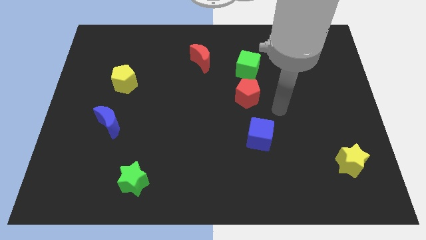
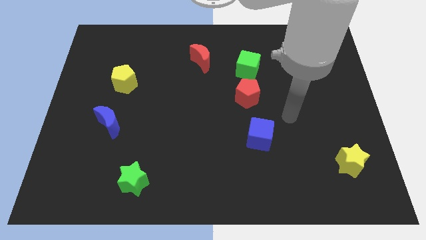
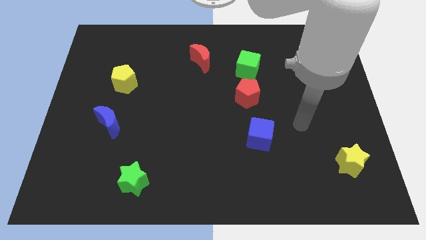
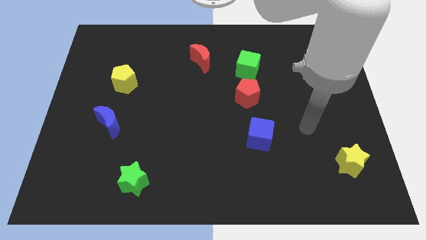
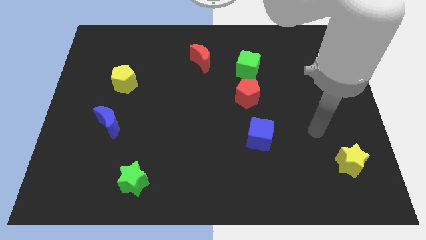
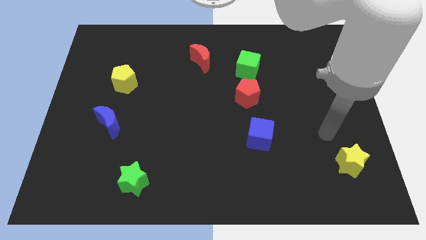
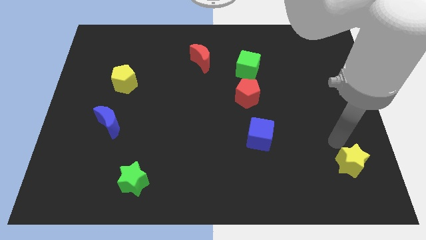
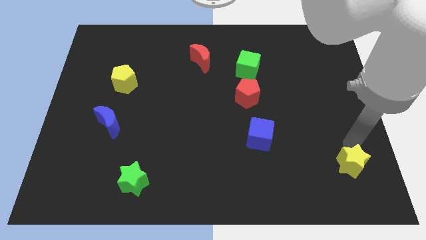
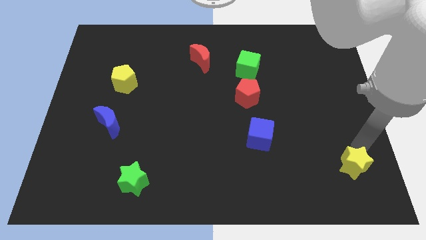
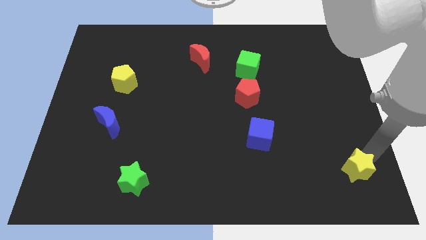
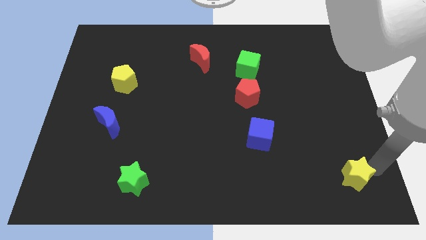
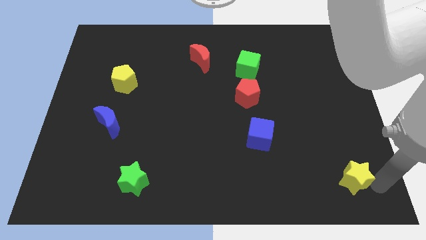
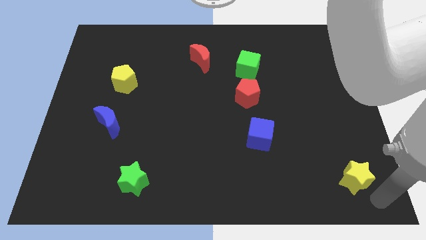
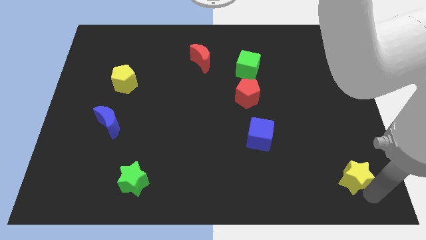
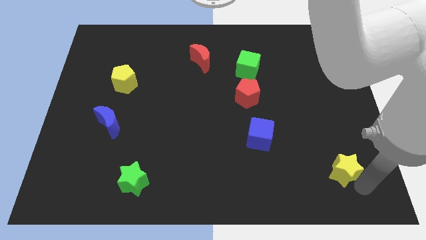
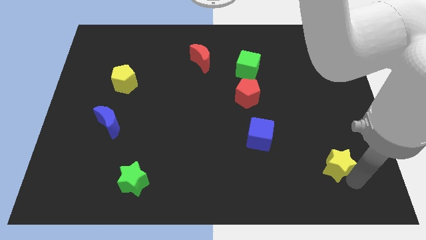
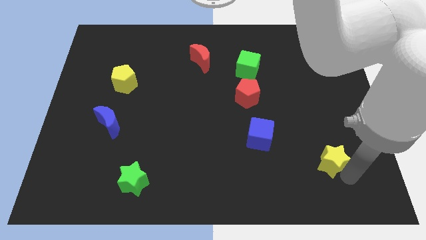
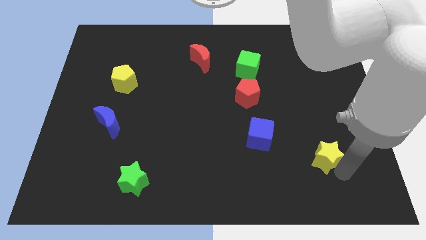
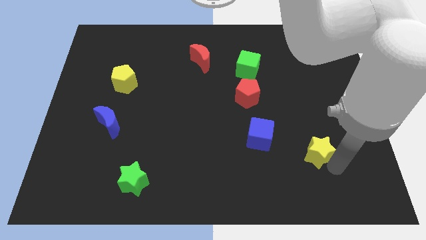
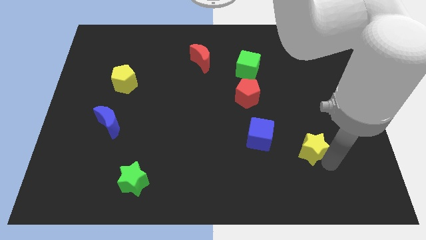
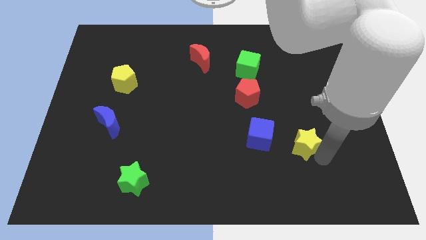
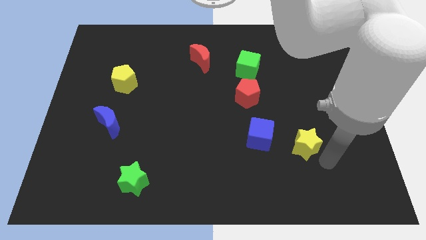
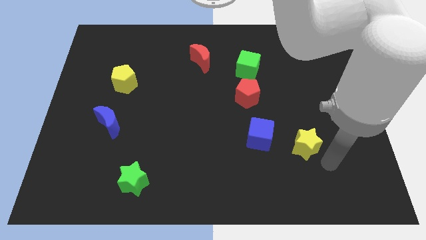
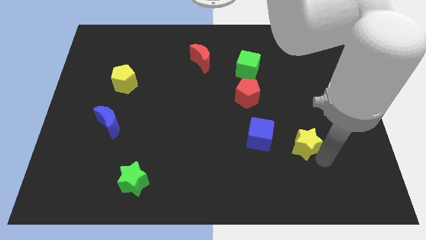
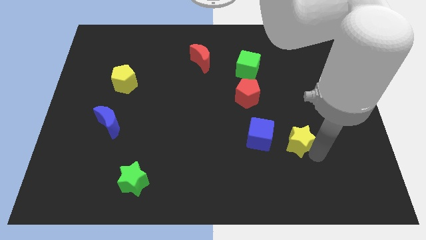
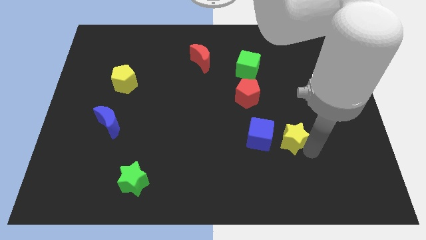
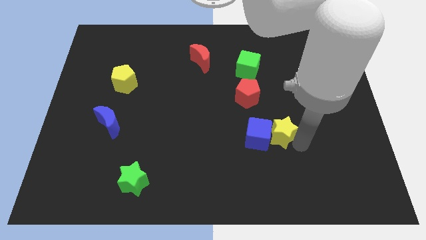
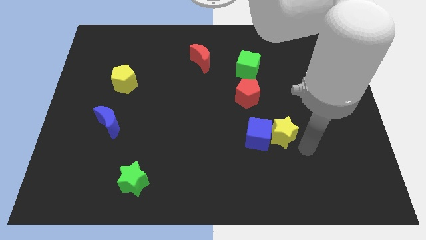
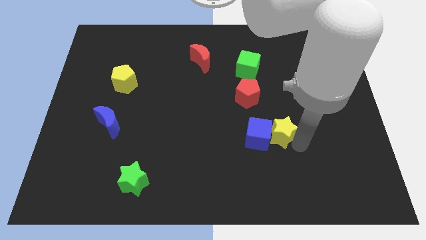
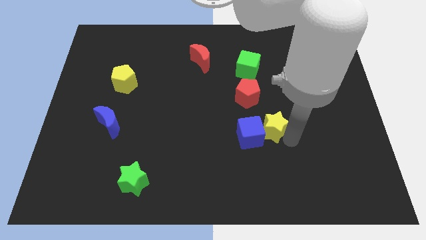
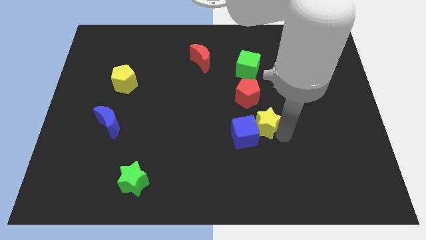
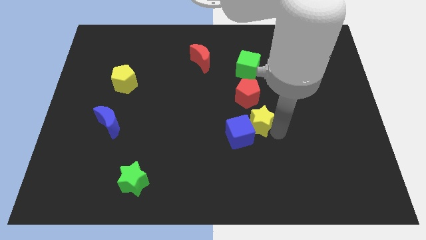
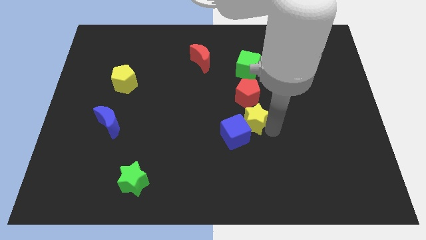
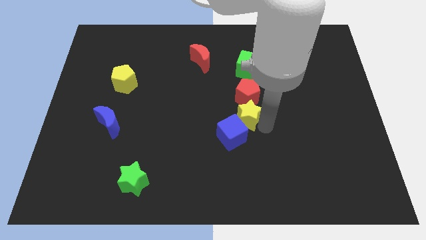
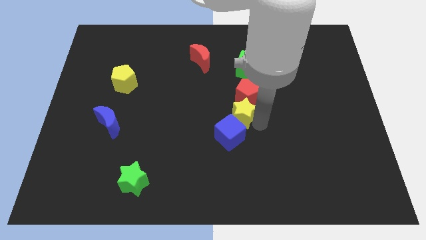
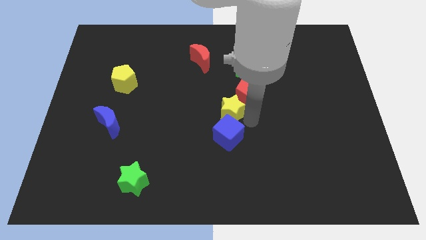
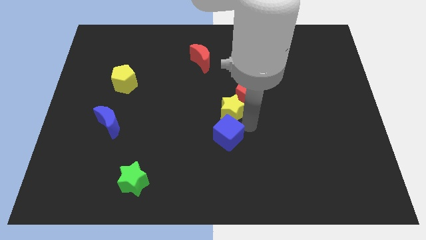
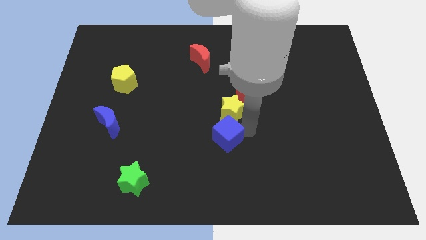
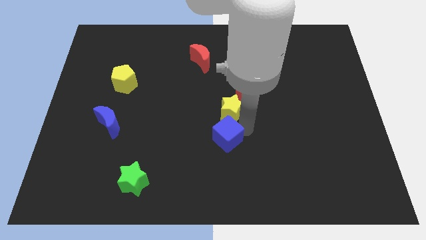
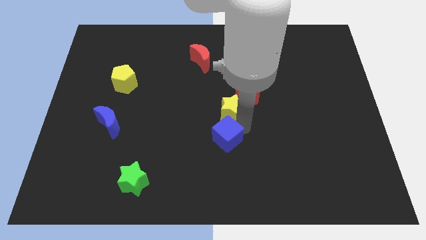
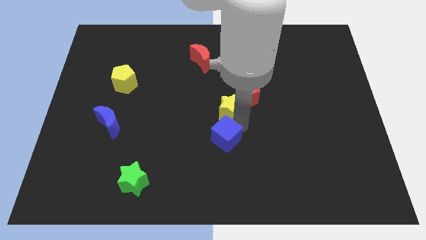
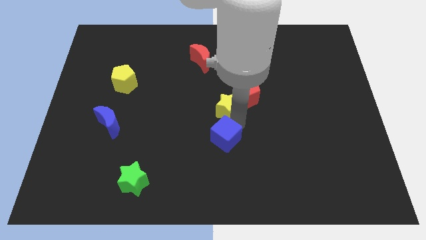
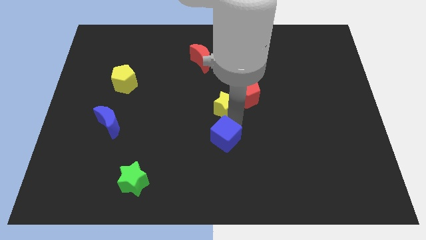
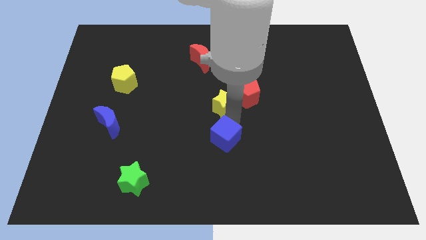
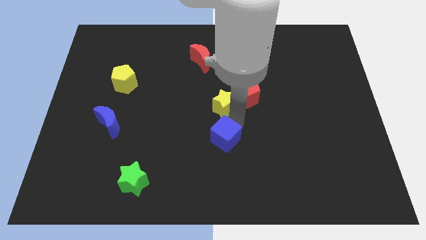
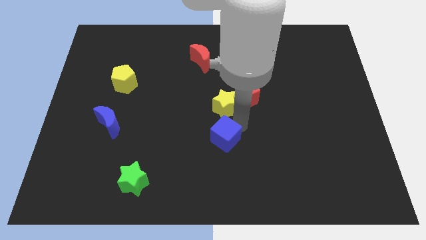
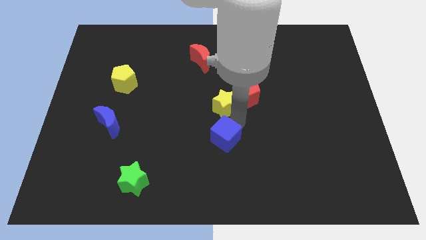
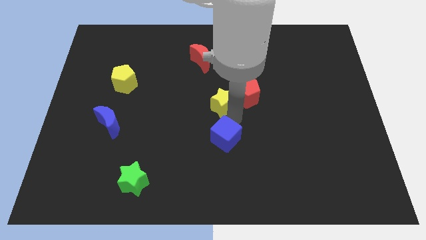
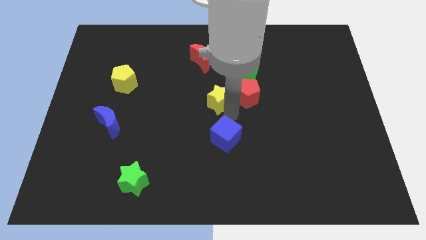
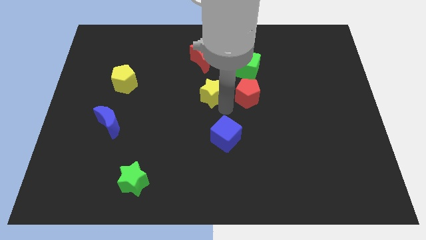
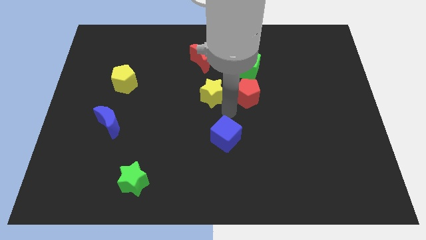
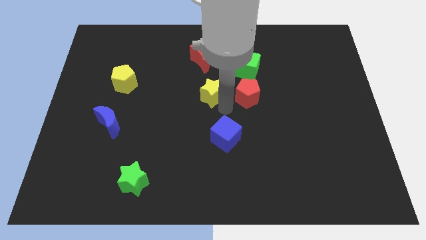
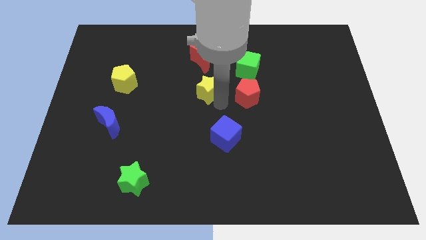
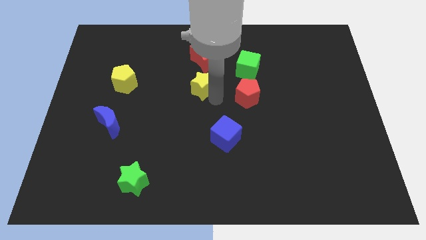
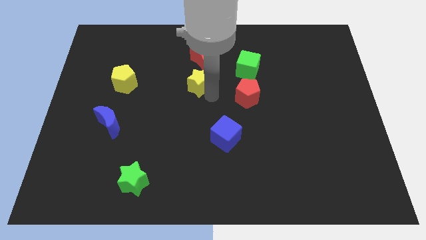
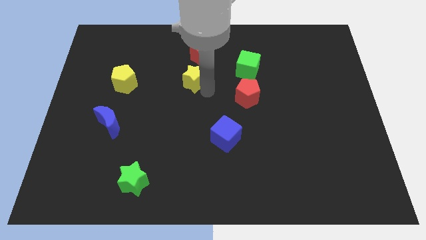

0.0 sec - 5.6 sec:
slide the yellow star diagonally down and to the left of the red moon

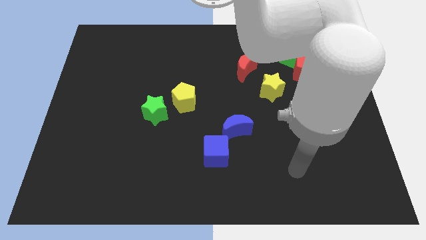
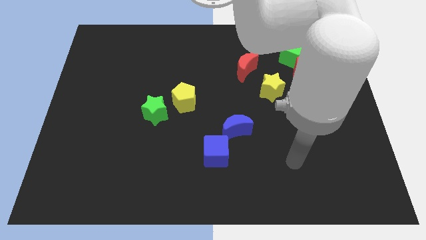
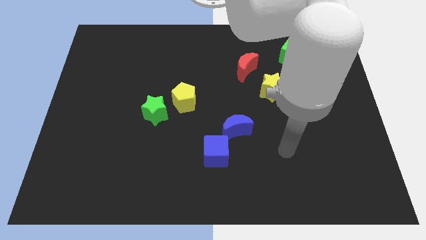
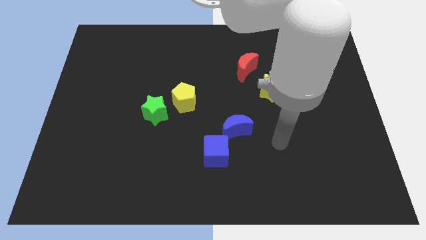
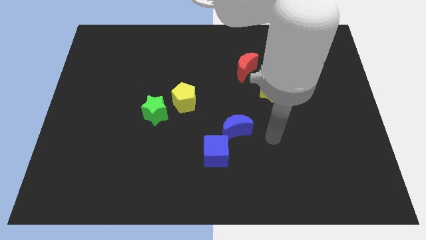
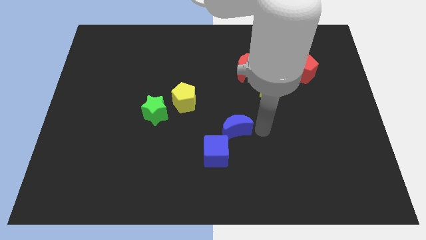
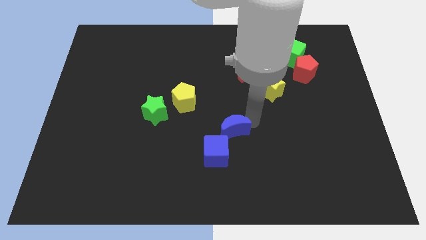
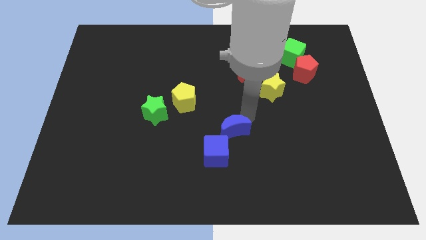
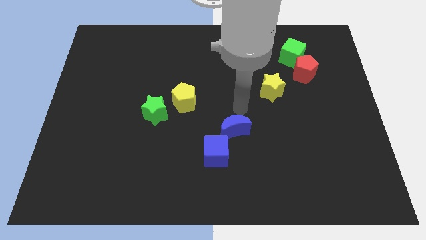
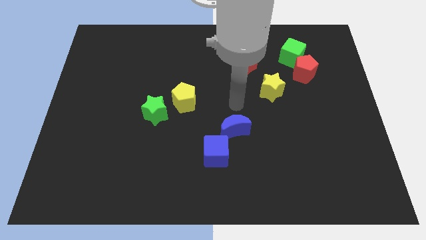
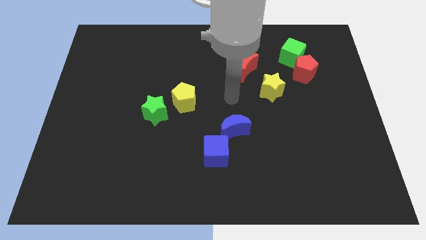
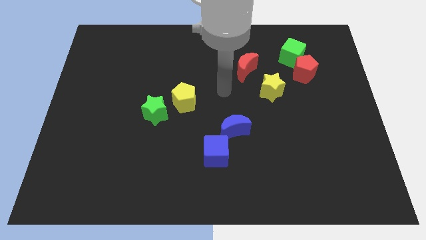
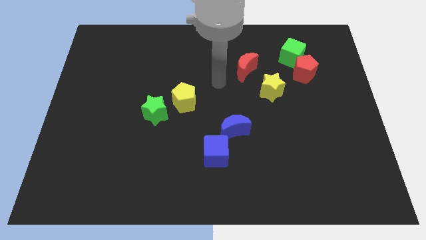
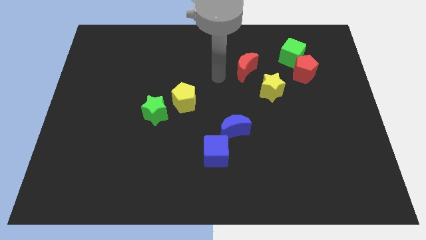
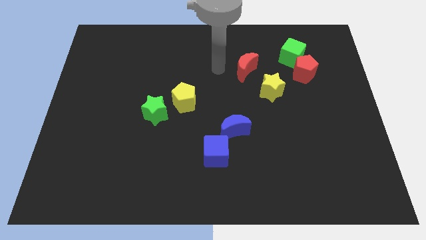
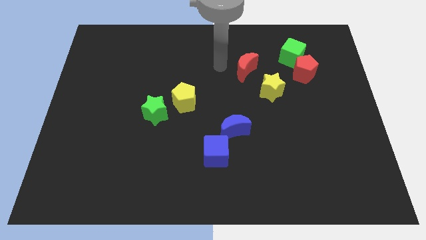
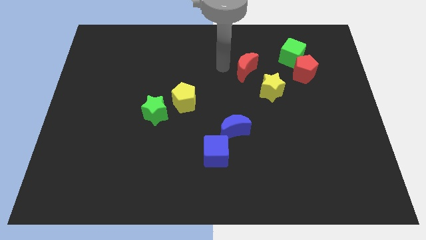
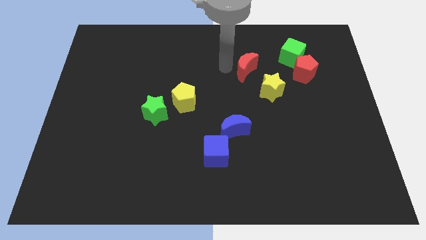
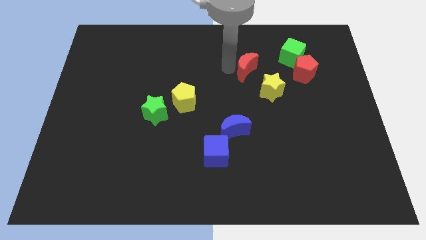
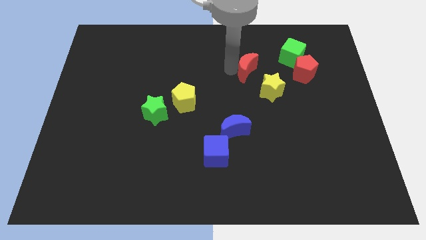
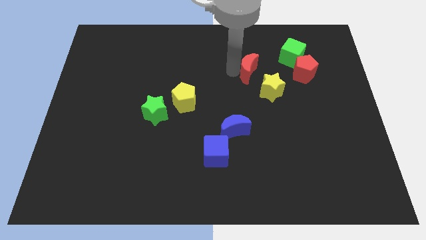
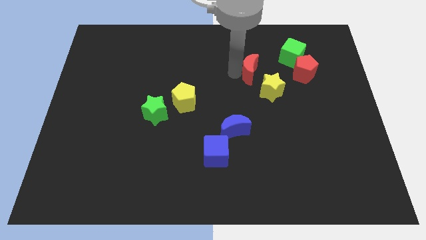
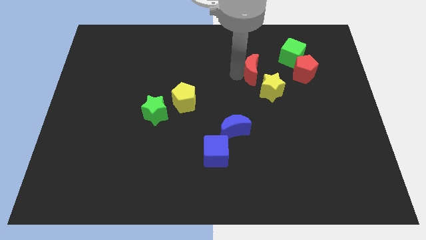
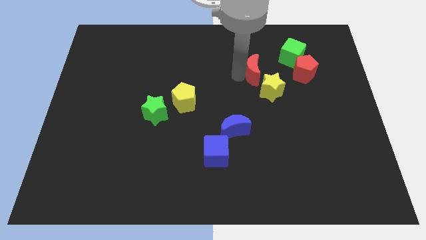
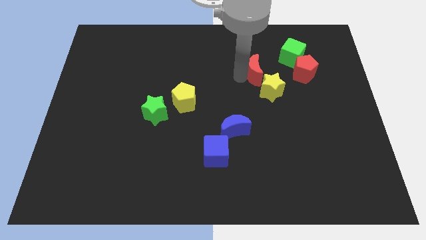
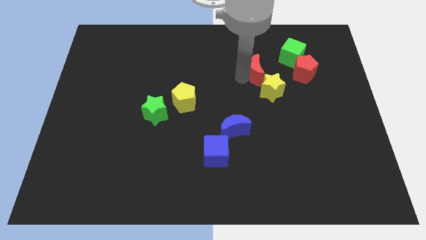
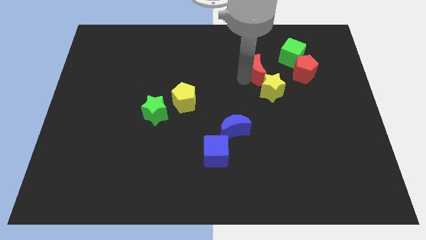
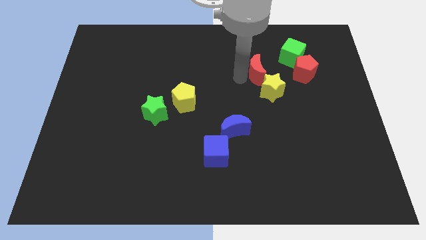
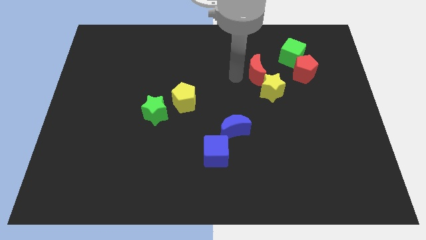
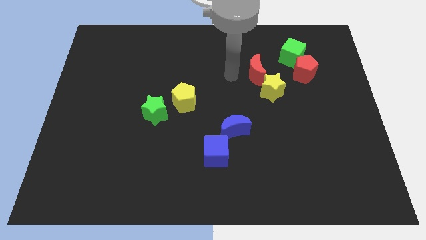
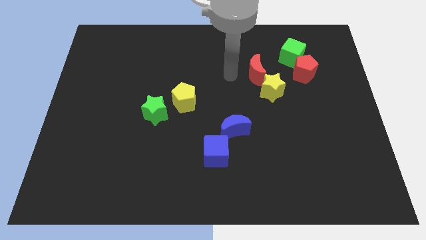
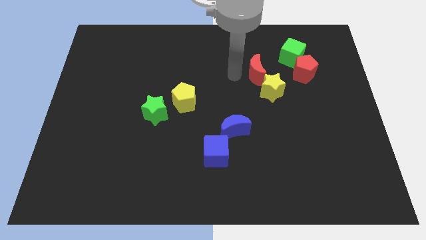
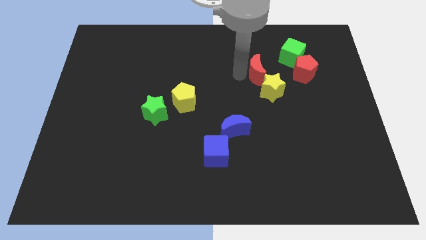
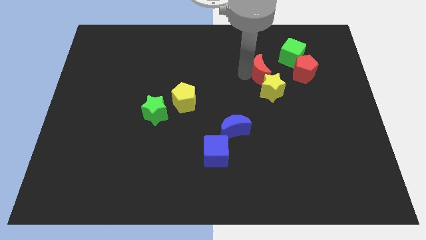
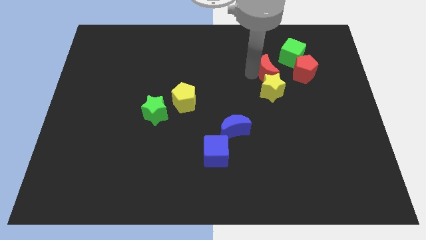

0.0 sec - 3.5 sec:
put the red moon diagonally up and to the right of the yellow star
